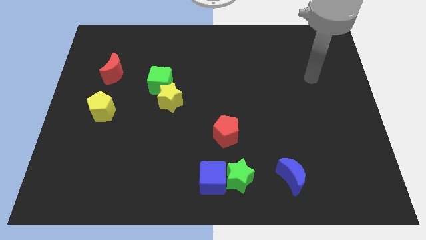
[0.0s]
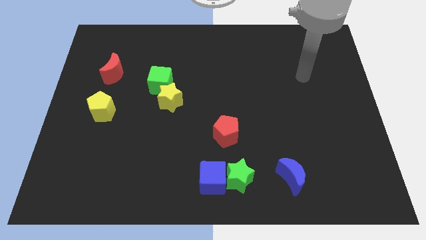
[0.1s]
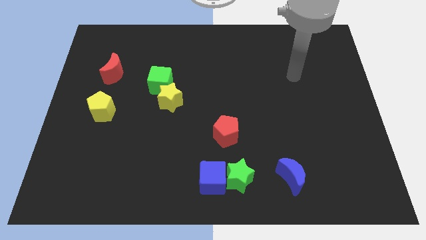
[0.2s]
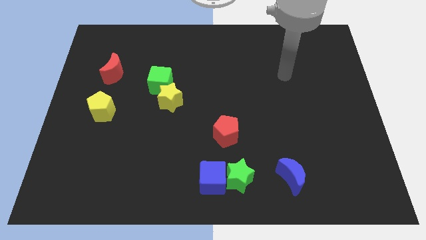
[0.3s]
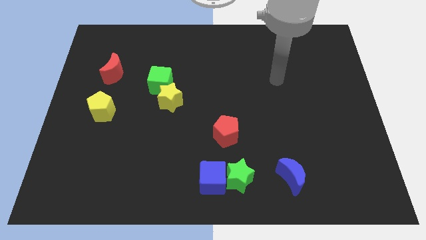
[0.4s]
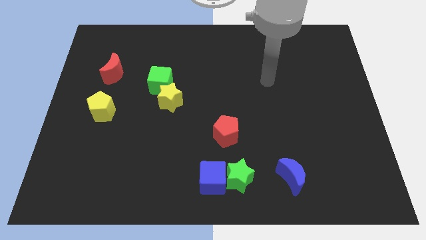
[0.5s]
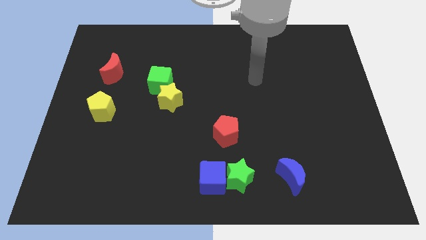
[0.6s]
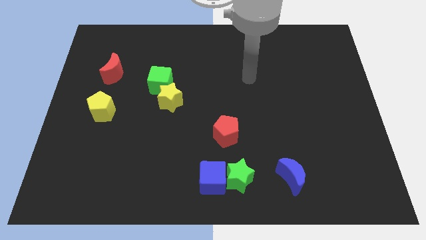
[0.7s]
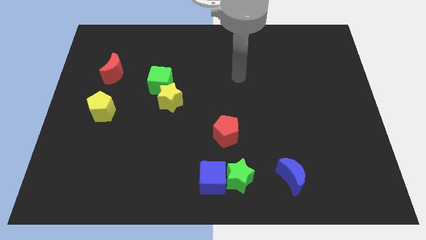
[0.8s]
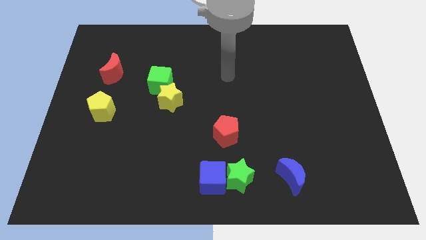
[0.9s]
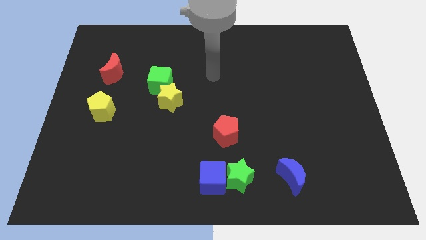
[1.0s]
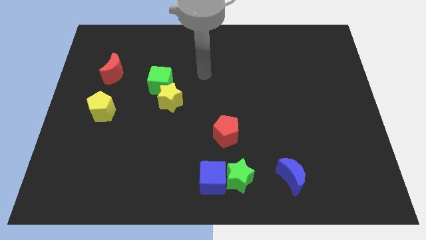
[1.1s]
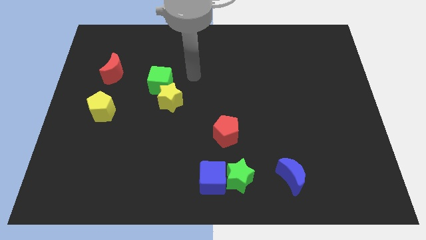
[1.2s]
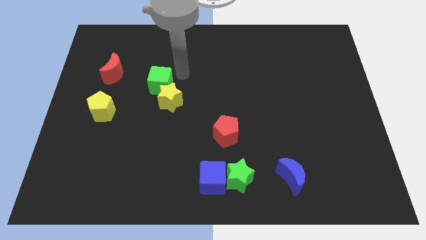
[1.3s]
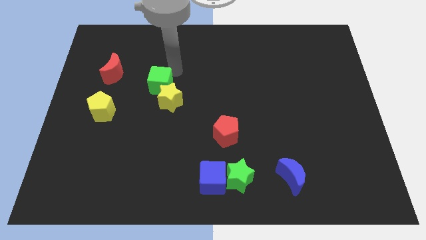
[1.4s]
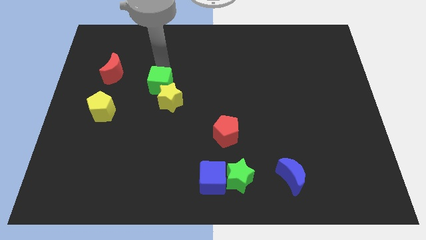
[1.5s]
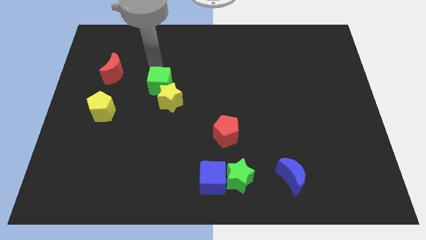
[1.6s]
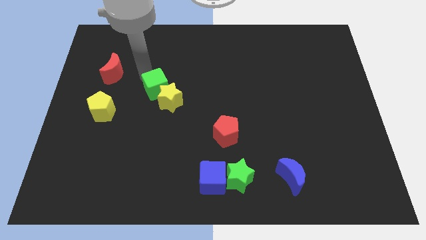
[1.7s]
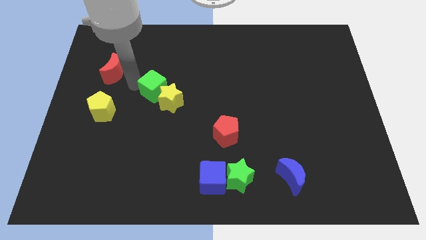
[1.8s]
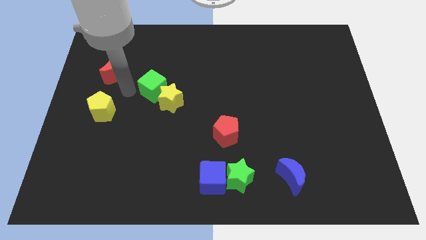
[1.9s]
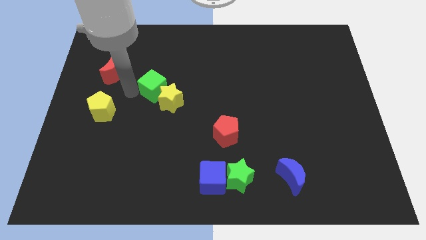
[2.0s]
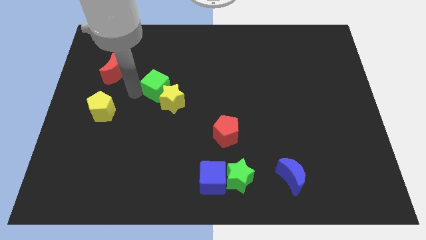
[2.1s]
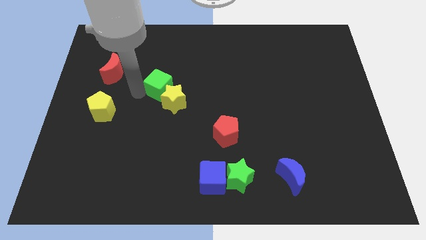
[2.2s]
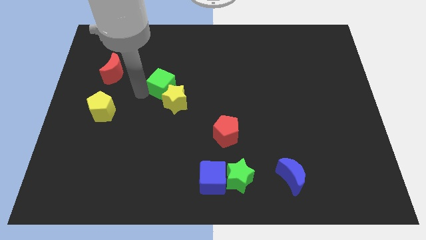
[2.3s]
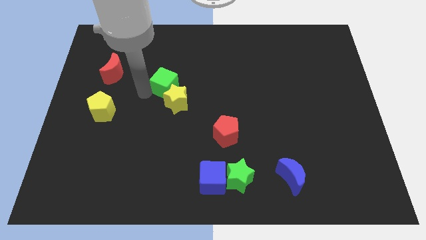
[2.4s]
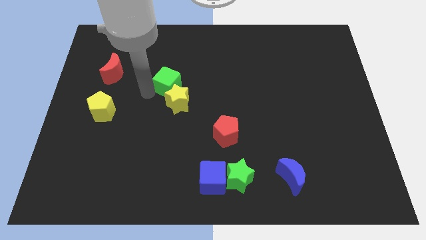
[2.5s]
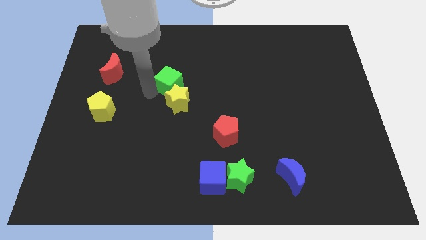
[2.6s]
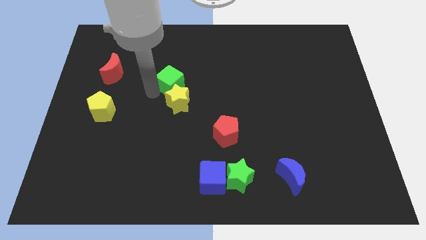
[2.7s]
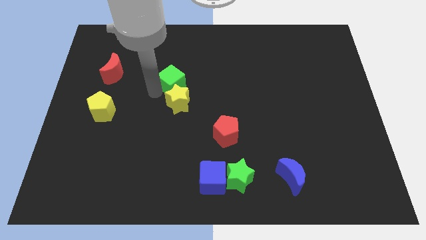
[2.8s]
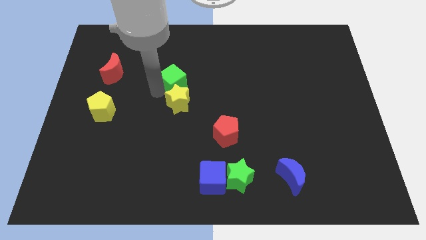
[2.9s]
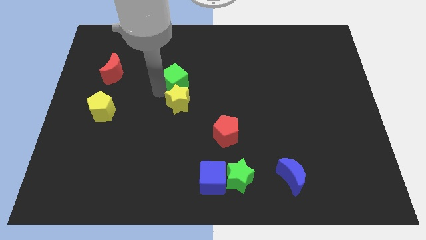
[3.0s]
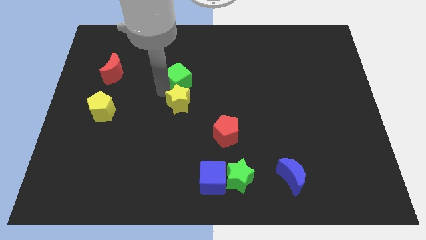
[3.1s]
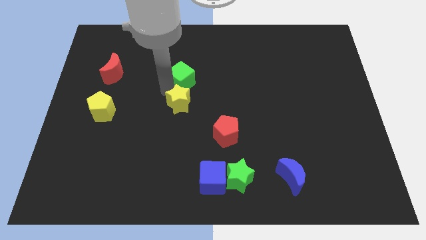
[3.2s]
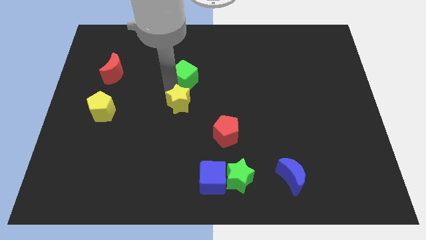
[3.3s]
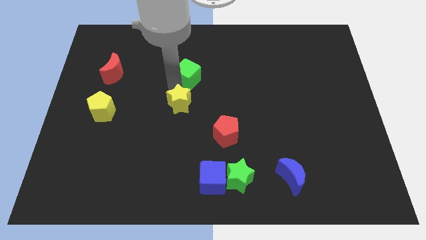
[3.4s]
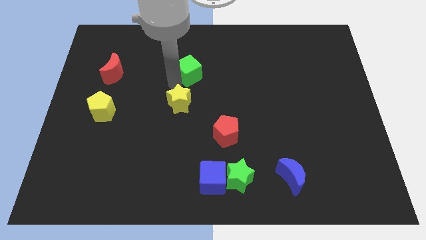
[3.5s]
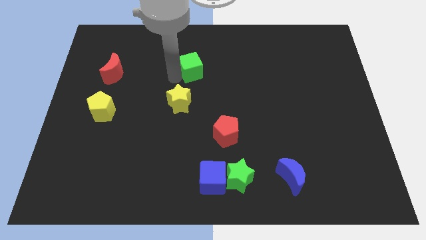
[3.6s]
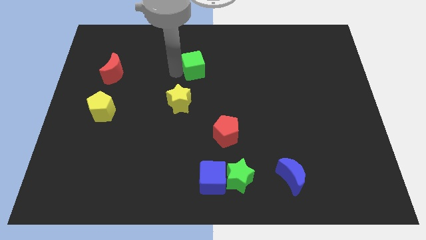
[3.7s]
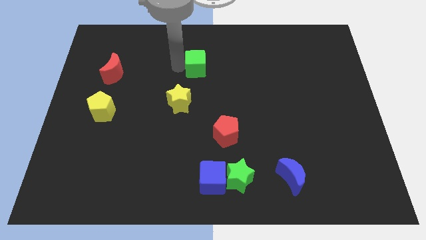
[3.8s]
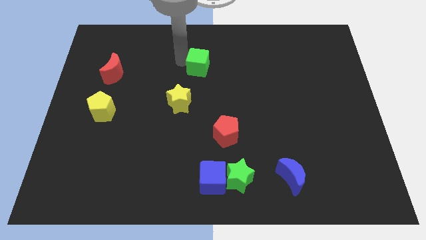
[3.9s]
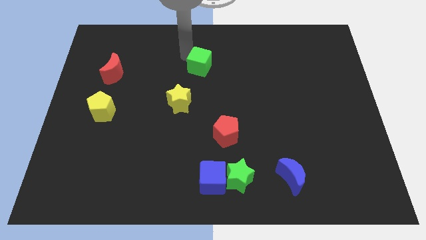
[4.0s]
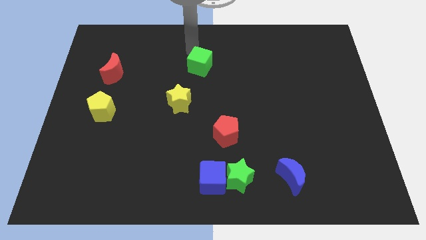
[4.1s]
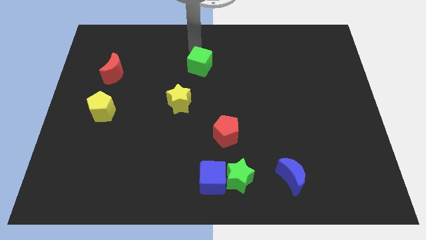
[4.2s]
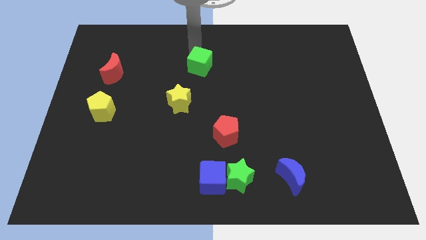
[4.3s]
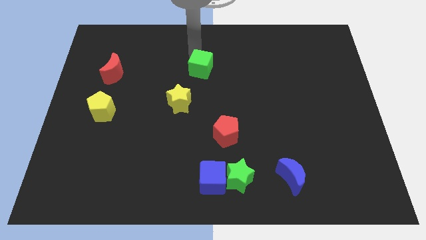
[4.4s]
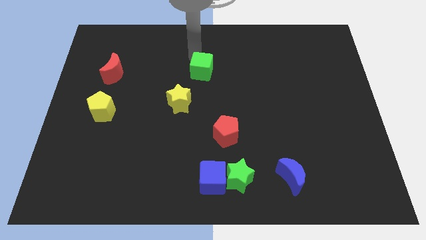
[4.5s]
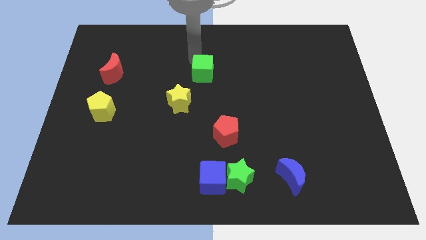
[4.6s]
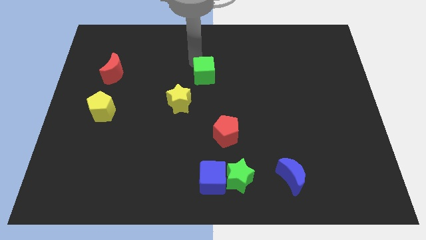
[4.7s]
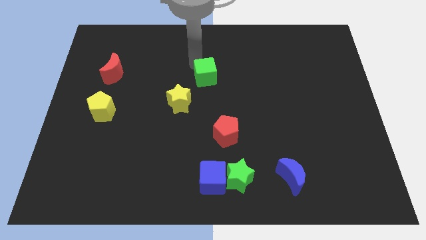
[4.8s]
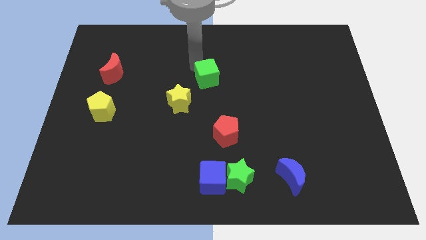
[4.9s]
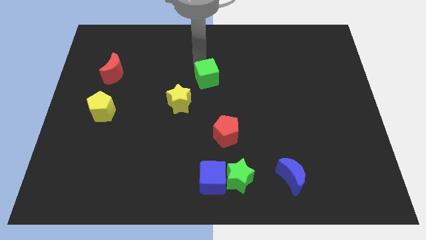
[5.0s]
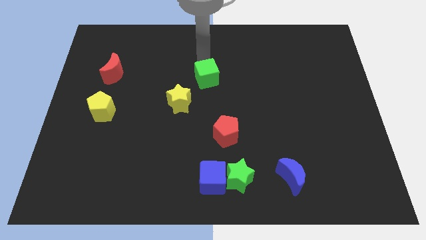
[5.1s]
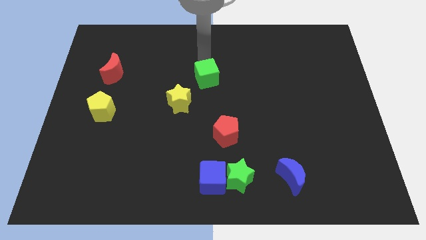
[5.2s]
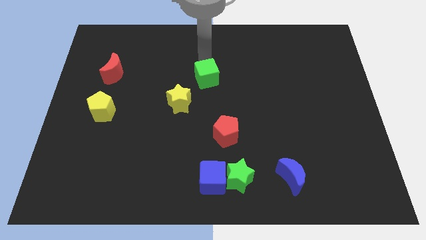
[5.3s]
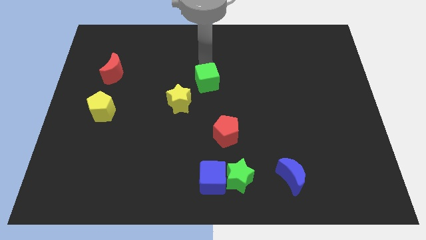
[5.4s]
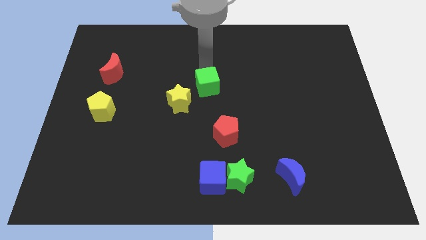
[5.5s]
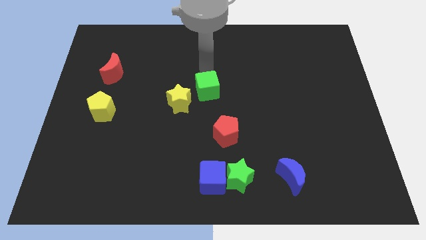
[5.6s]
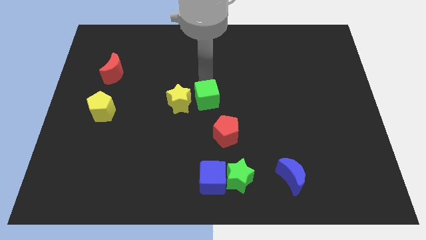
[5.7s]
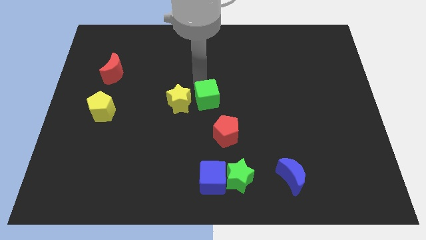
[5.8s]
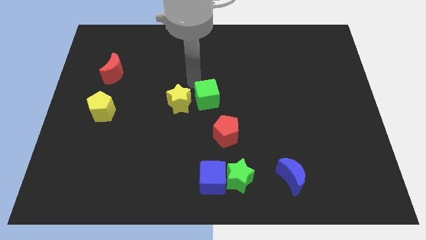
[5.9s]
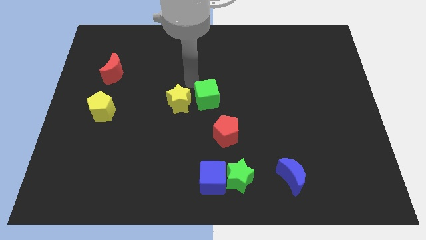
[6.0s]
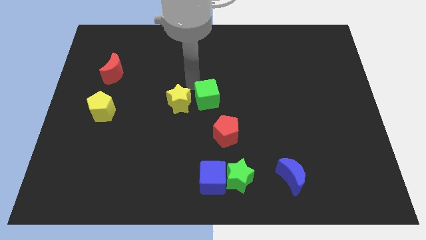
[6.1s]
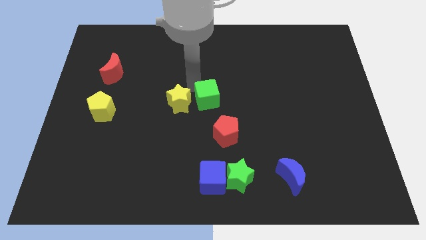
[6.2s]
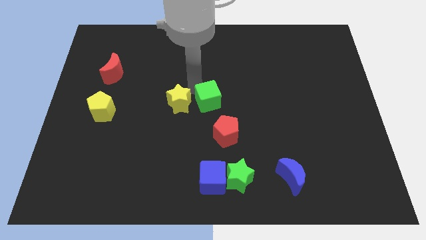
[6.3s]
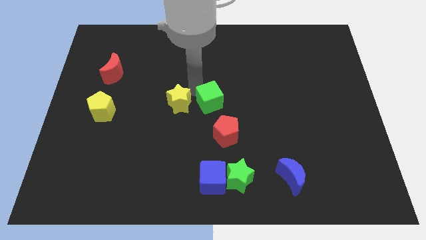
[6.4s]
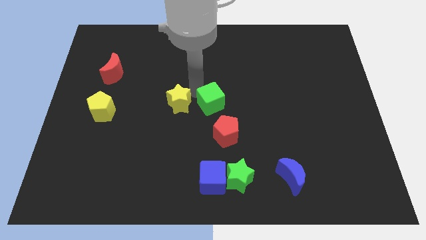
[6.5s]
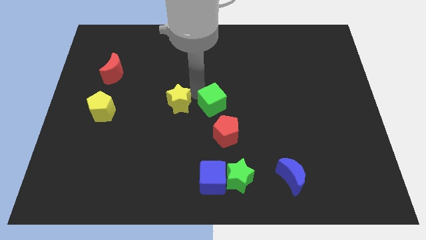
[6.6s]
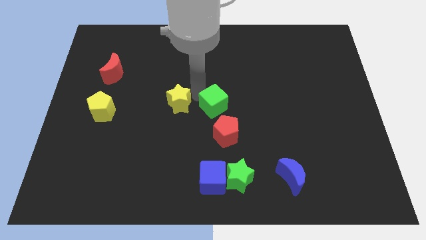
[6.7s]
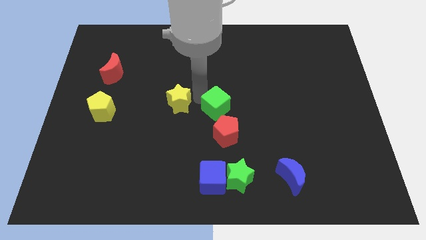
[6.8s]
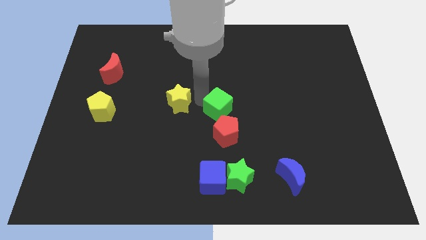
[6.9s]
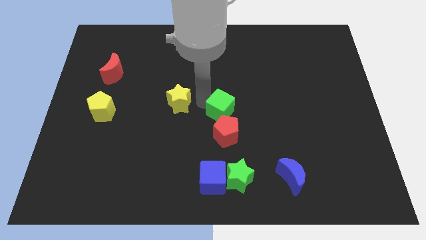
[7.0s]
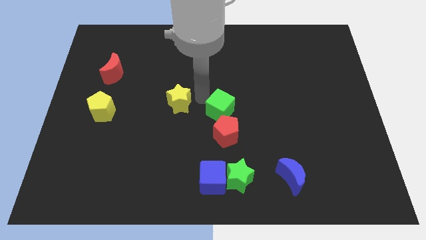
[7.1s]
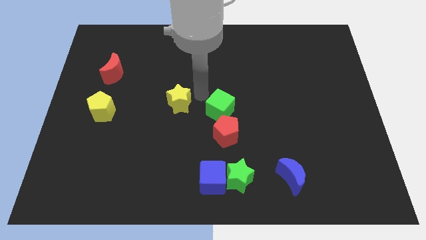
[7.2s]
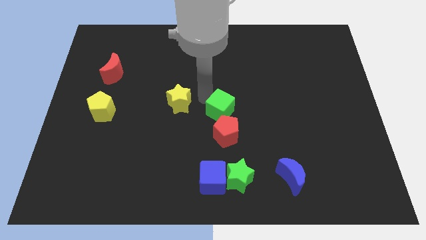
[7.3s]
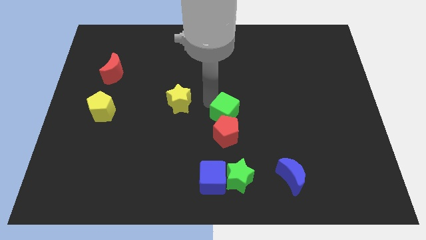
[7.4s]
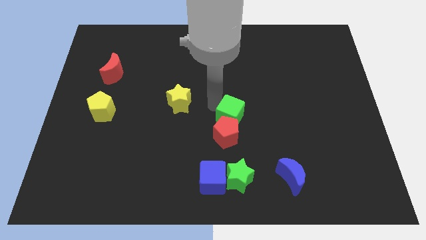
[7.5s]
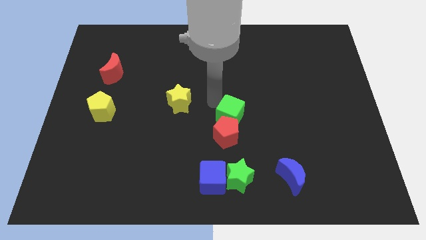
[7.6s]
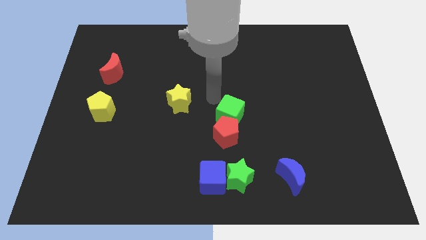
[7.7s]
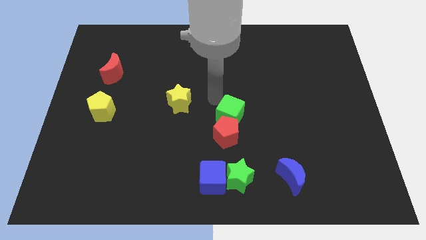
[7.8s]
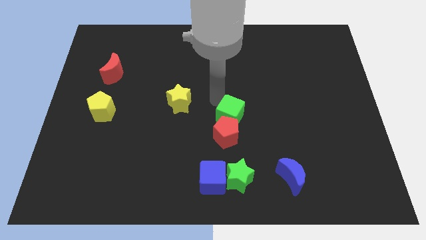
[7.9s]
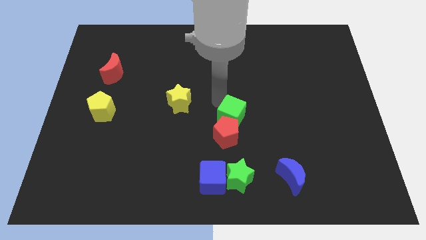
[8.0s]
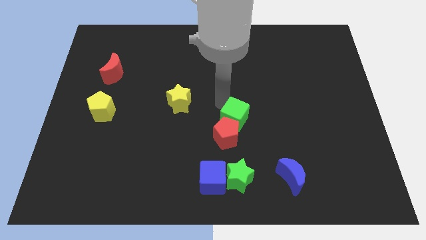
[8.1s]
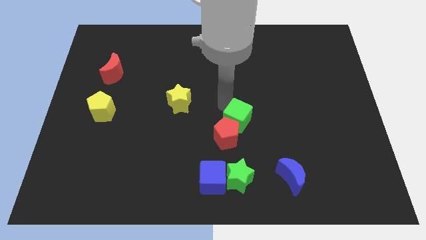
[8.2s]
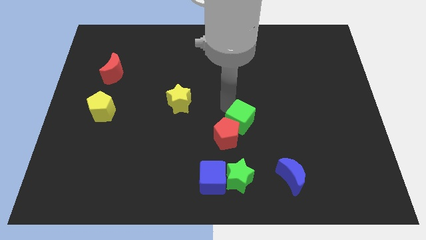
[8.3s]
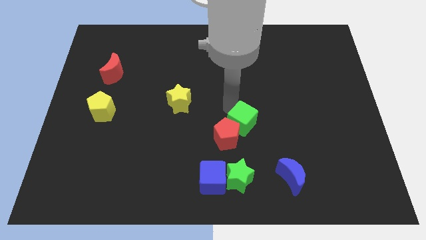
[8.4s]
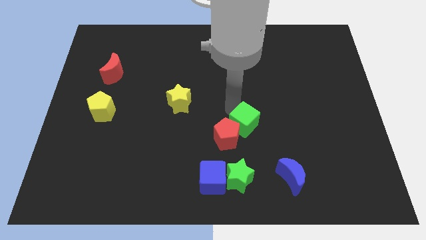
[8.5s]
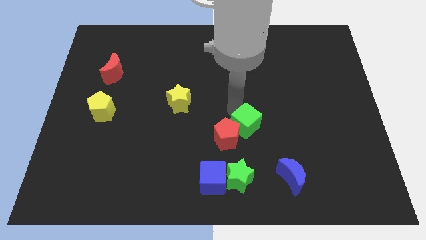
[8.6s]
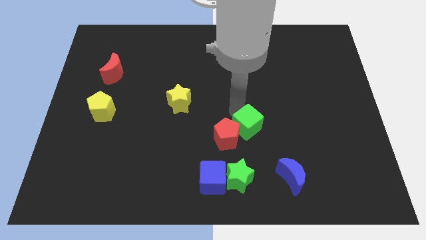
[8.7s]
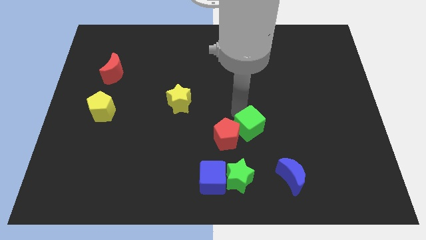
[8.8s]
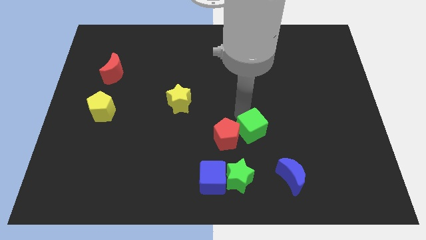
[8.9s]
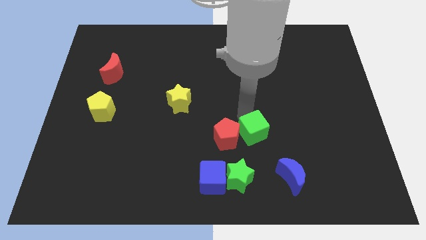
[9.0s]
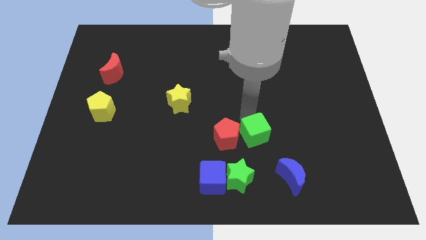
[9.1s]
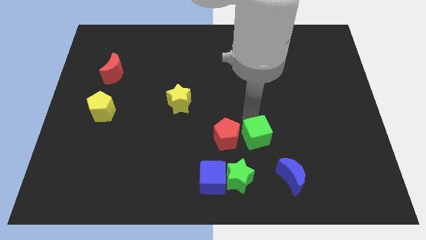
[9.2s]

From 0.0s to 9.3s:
push the green cube to the top left of the blue moon
